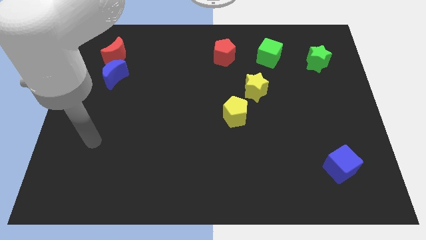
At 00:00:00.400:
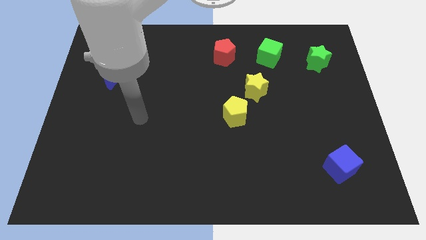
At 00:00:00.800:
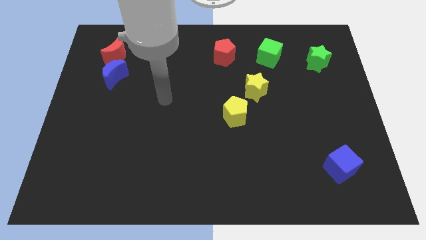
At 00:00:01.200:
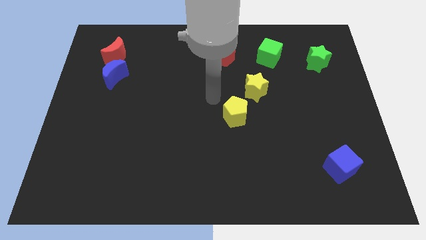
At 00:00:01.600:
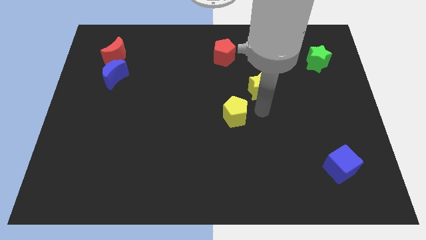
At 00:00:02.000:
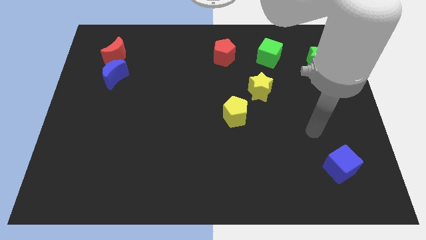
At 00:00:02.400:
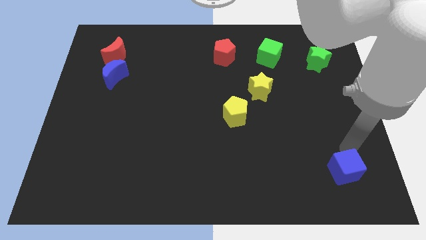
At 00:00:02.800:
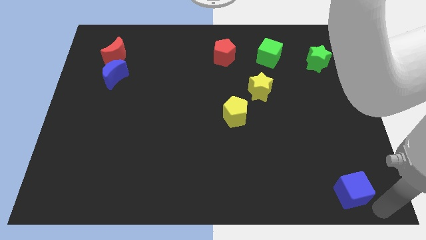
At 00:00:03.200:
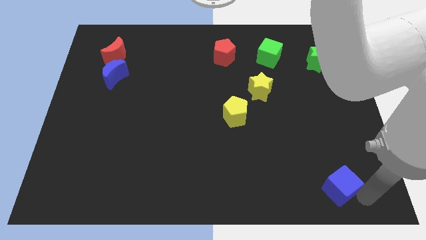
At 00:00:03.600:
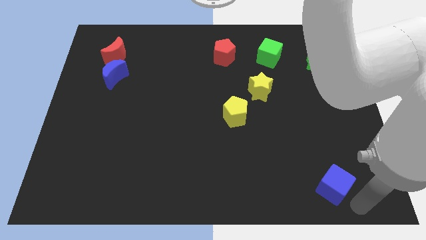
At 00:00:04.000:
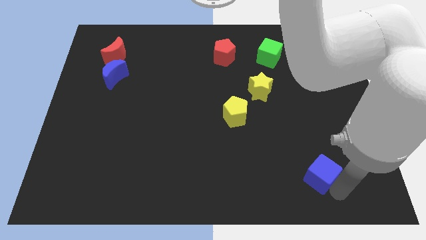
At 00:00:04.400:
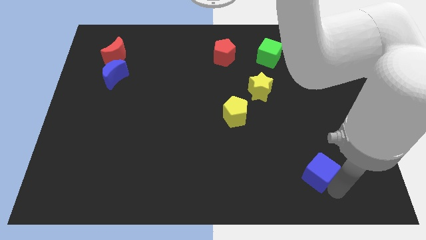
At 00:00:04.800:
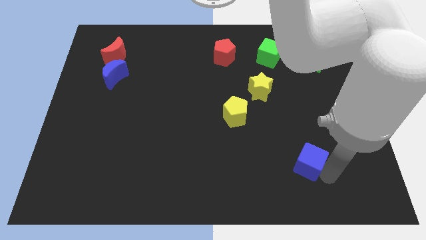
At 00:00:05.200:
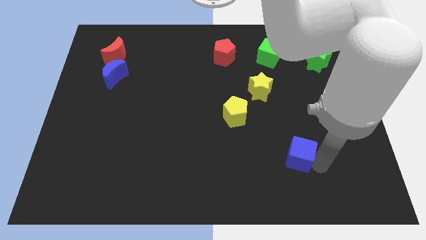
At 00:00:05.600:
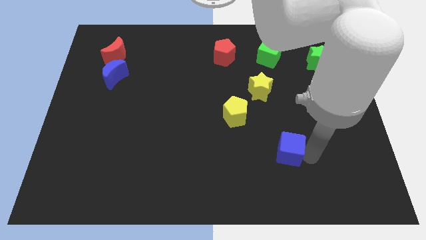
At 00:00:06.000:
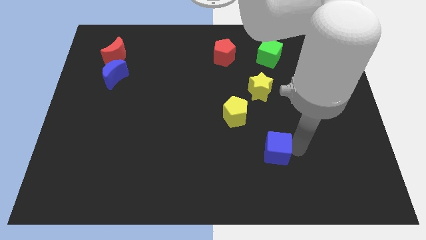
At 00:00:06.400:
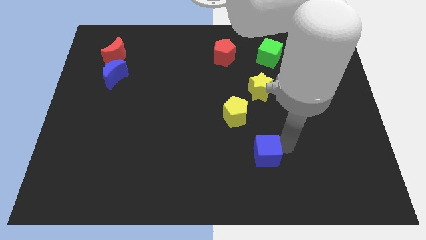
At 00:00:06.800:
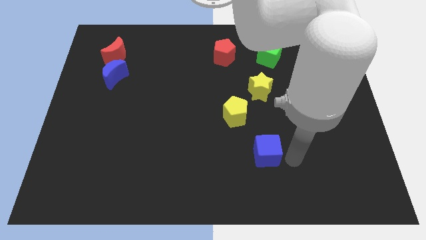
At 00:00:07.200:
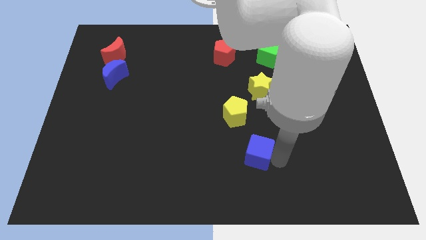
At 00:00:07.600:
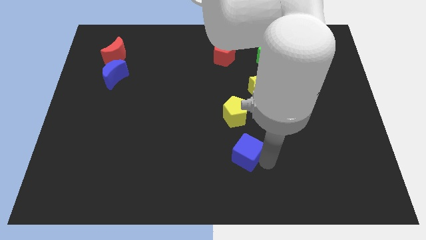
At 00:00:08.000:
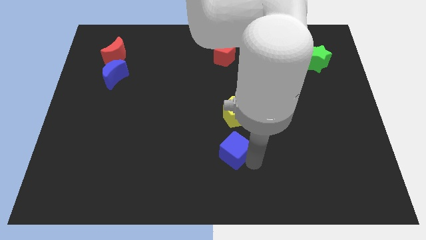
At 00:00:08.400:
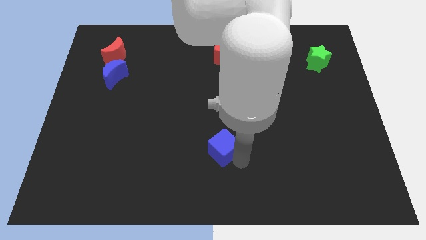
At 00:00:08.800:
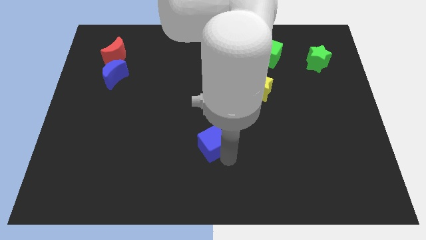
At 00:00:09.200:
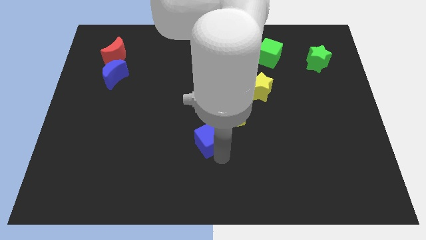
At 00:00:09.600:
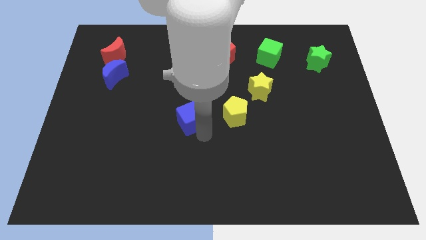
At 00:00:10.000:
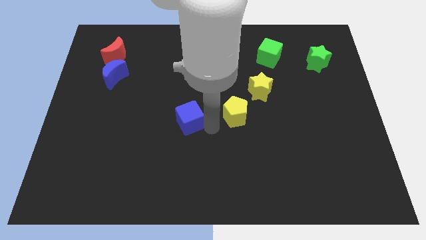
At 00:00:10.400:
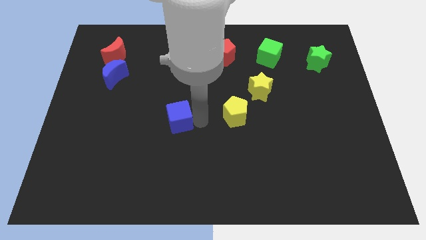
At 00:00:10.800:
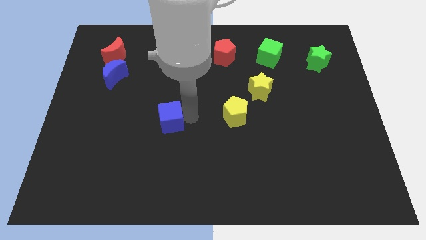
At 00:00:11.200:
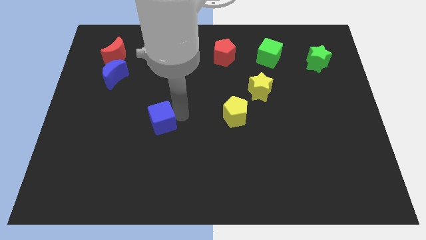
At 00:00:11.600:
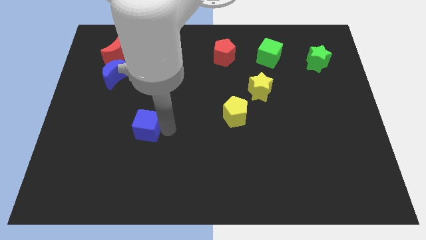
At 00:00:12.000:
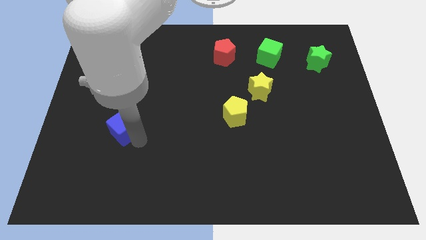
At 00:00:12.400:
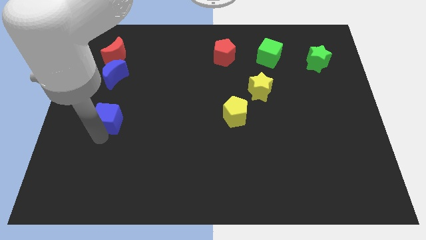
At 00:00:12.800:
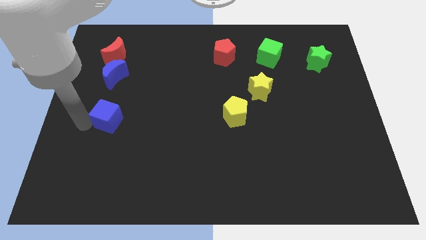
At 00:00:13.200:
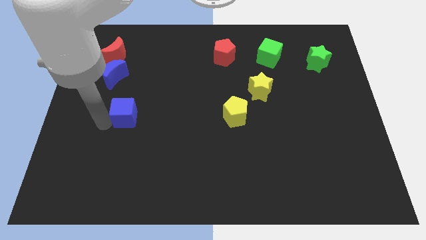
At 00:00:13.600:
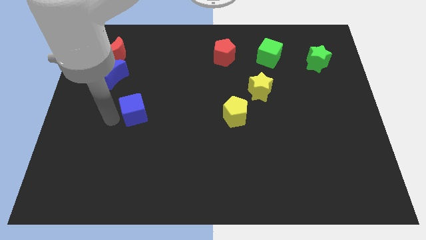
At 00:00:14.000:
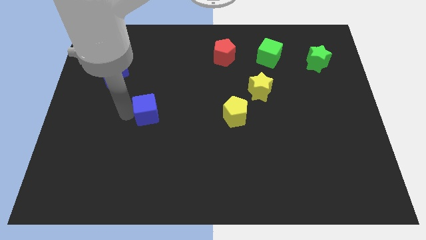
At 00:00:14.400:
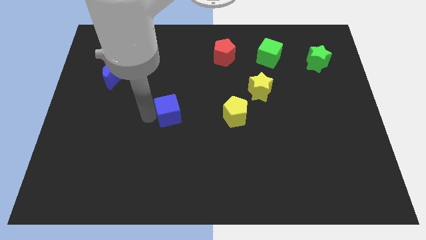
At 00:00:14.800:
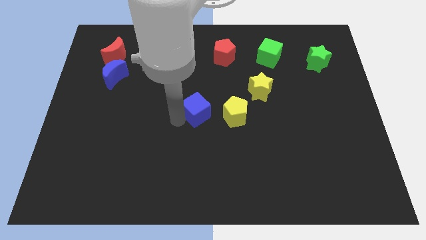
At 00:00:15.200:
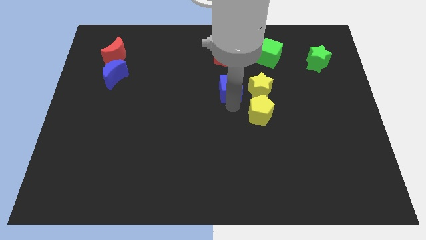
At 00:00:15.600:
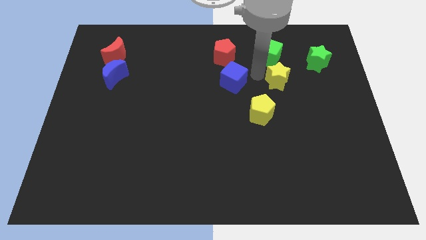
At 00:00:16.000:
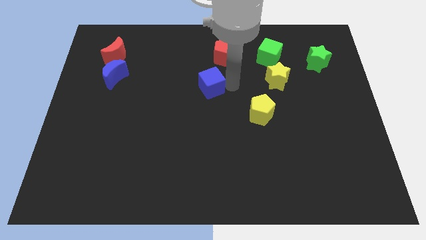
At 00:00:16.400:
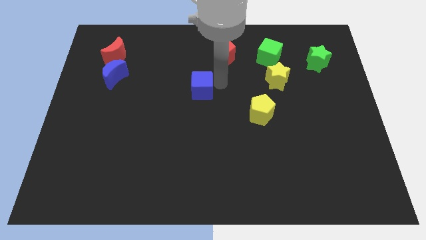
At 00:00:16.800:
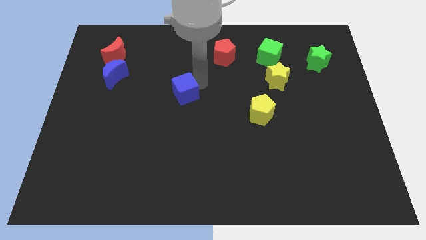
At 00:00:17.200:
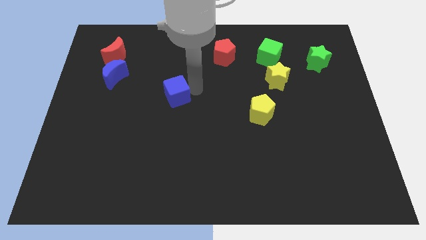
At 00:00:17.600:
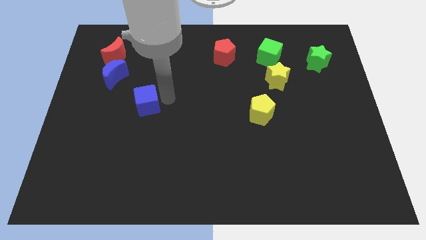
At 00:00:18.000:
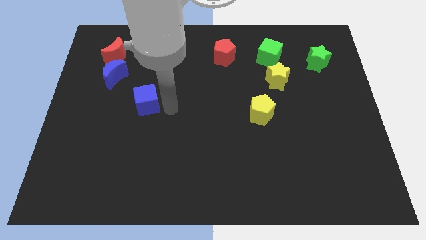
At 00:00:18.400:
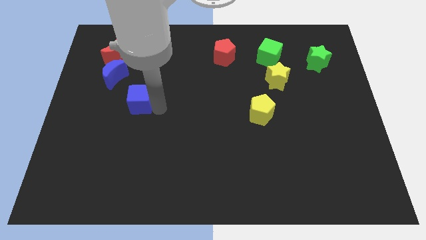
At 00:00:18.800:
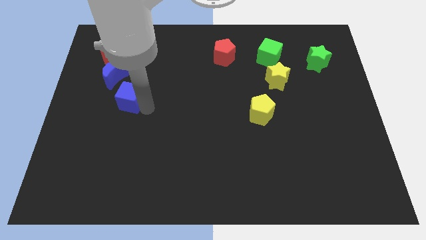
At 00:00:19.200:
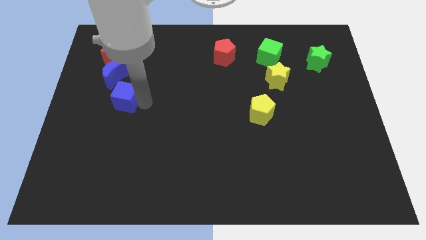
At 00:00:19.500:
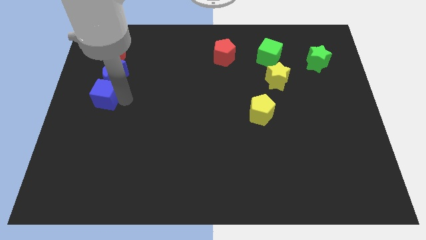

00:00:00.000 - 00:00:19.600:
move the blue cube to the left side of the board

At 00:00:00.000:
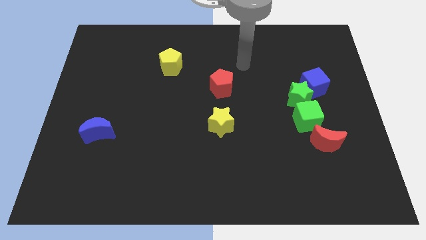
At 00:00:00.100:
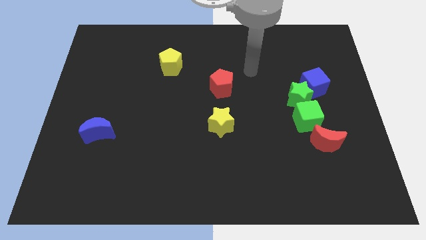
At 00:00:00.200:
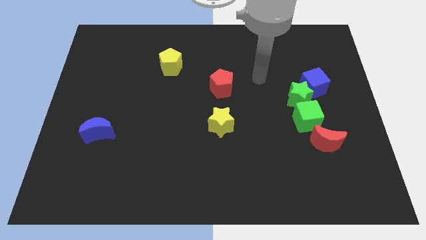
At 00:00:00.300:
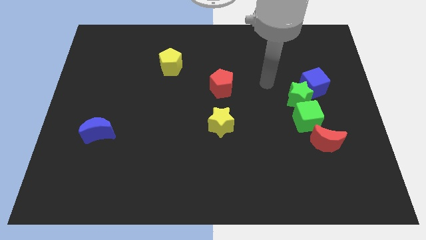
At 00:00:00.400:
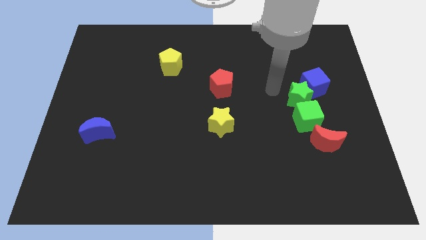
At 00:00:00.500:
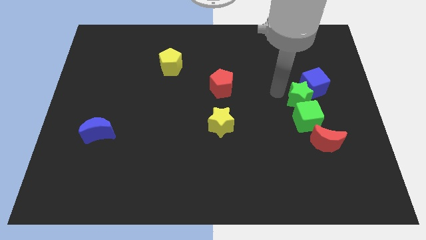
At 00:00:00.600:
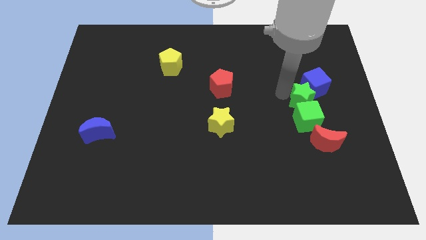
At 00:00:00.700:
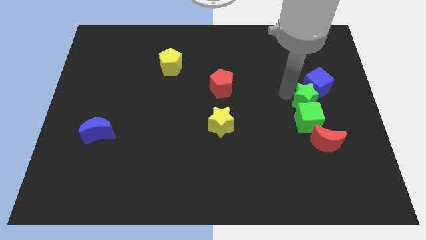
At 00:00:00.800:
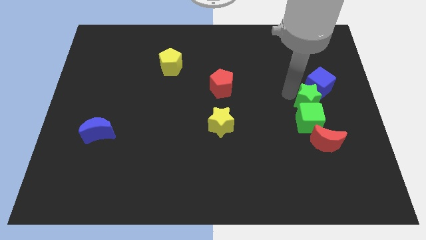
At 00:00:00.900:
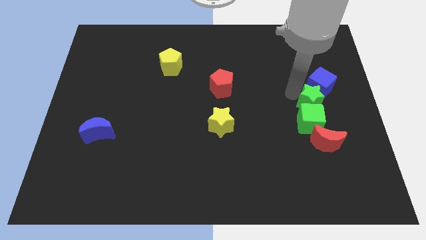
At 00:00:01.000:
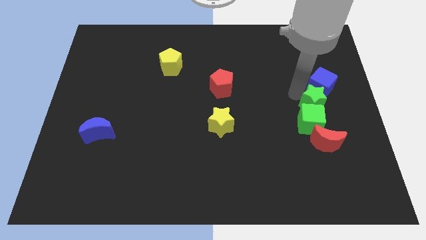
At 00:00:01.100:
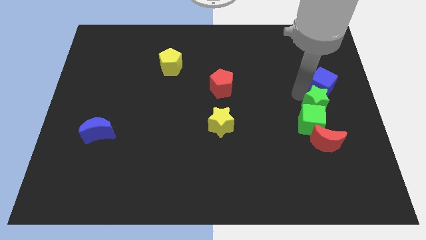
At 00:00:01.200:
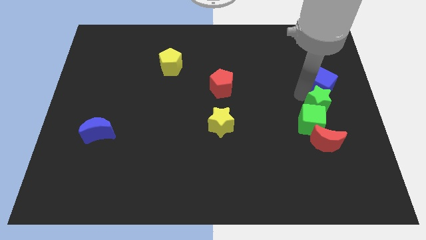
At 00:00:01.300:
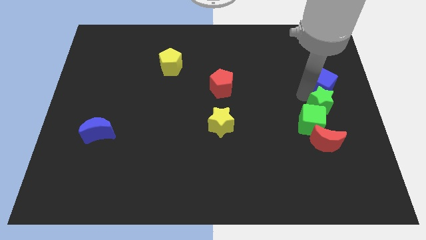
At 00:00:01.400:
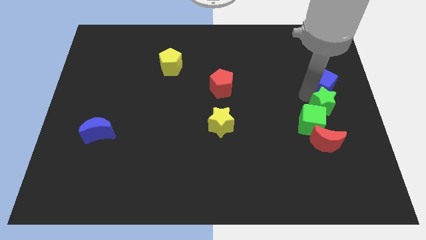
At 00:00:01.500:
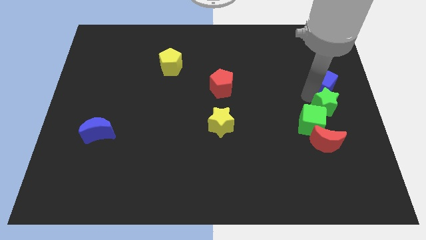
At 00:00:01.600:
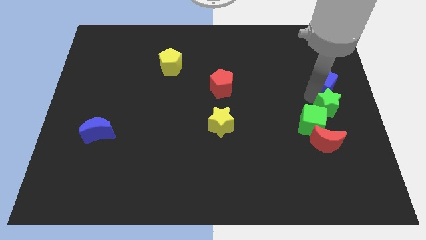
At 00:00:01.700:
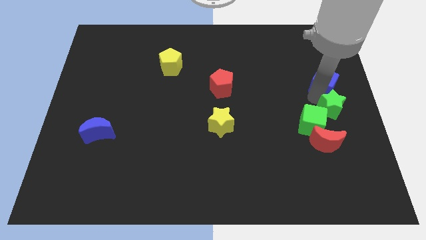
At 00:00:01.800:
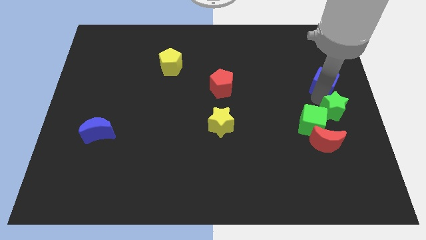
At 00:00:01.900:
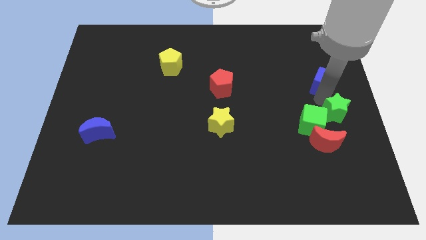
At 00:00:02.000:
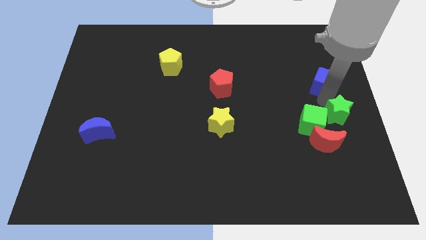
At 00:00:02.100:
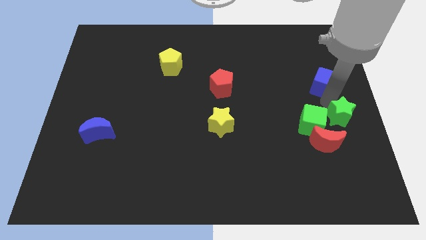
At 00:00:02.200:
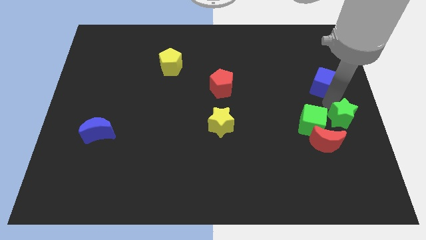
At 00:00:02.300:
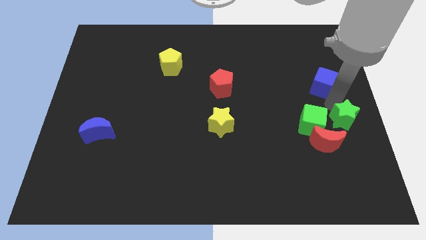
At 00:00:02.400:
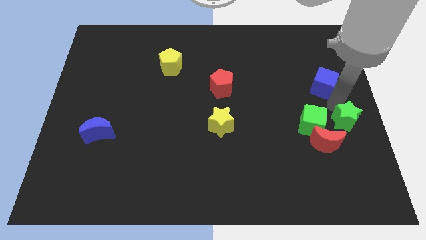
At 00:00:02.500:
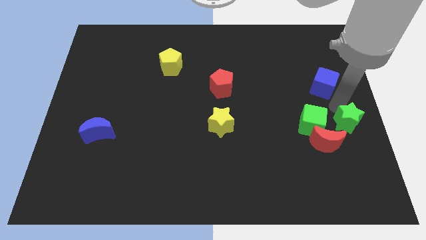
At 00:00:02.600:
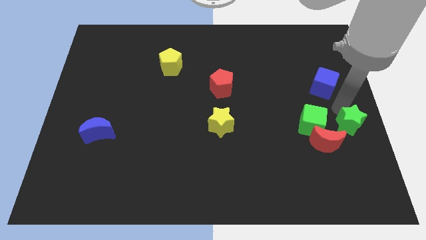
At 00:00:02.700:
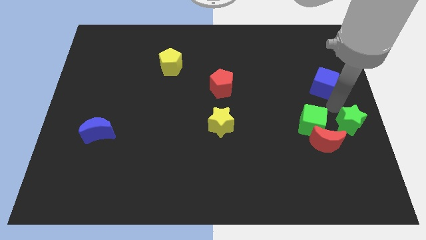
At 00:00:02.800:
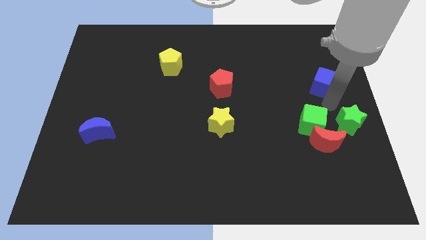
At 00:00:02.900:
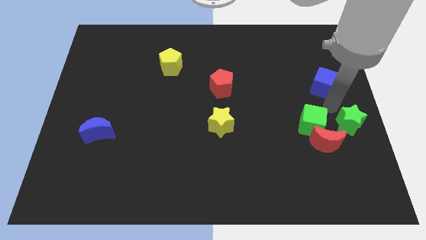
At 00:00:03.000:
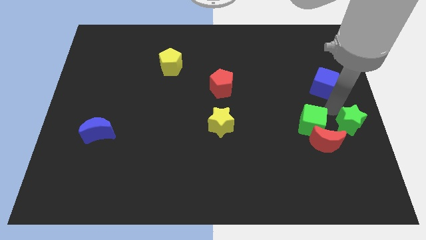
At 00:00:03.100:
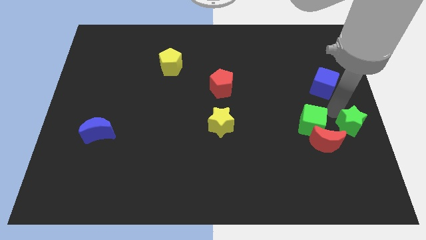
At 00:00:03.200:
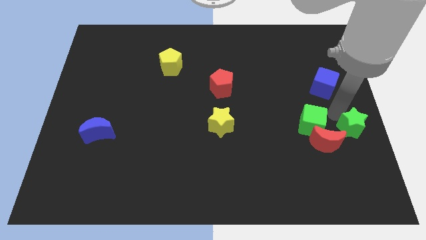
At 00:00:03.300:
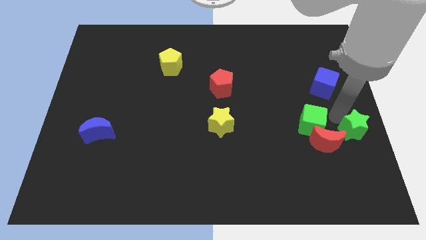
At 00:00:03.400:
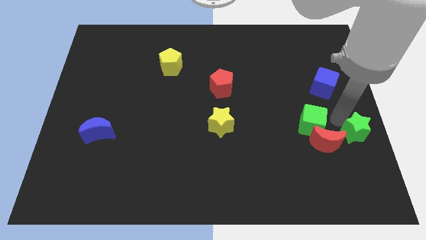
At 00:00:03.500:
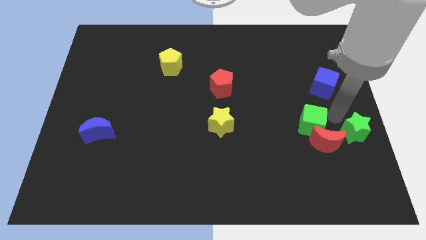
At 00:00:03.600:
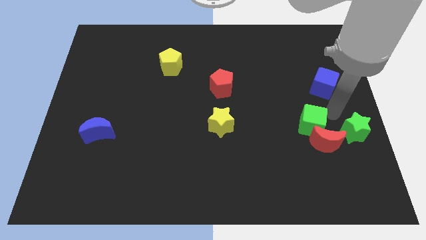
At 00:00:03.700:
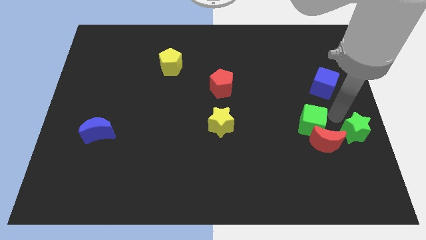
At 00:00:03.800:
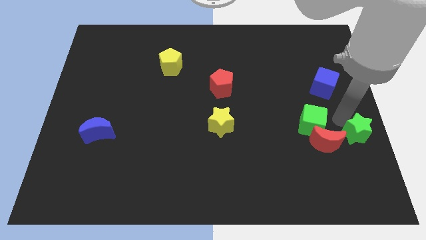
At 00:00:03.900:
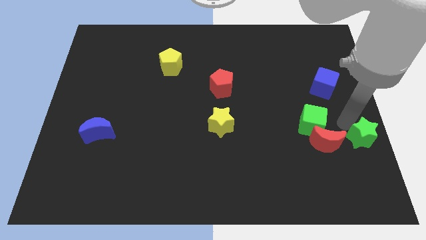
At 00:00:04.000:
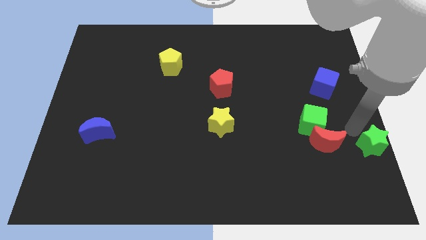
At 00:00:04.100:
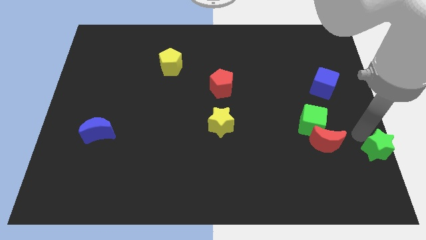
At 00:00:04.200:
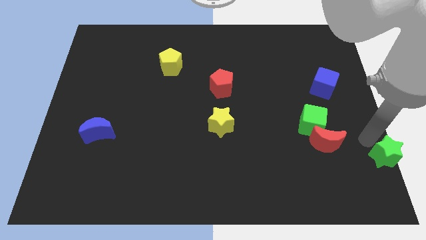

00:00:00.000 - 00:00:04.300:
move the green star to the lower right corner
